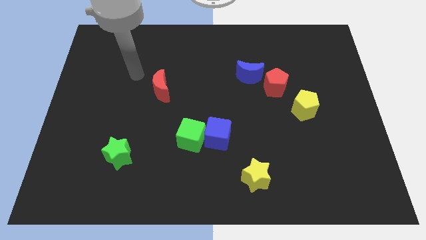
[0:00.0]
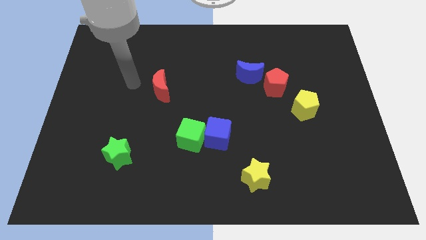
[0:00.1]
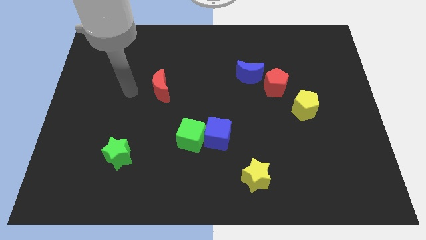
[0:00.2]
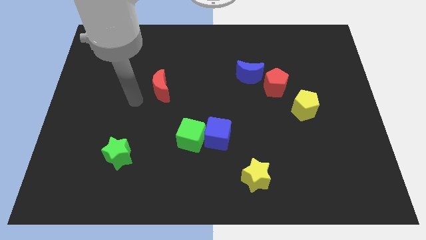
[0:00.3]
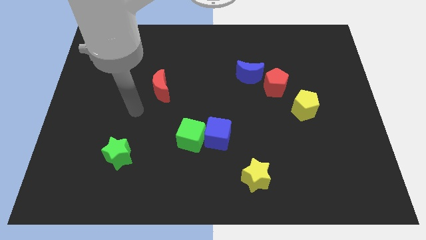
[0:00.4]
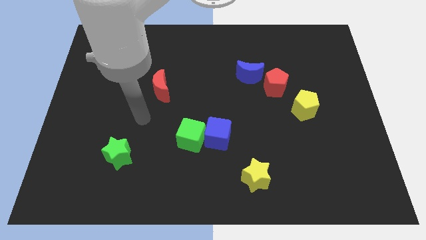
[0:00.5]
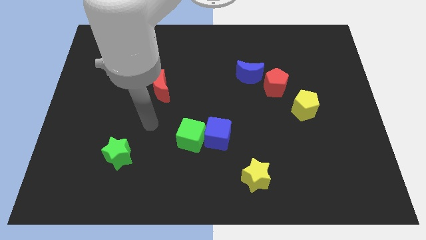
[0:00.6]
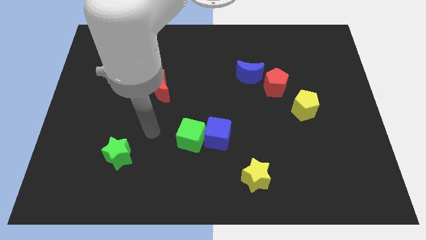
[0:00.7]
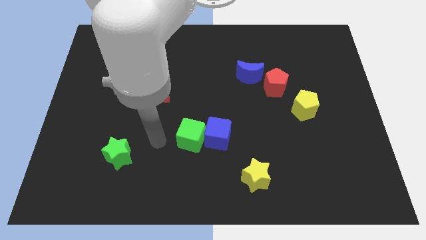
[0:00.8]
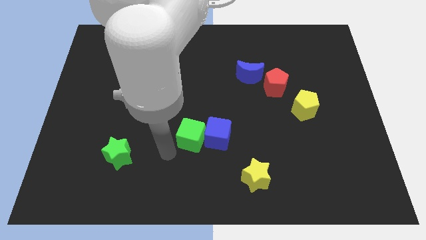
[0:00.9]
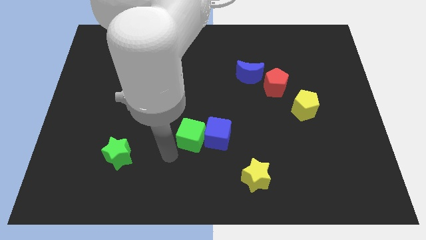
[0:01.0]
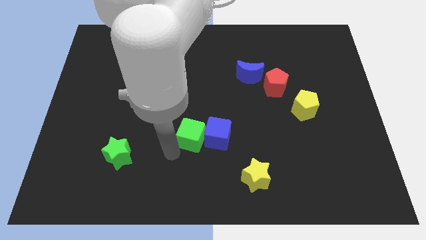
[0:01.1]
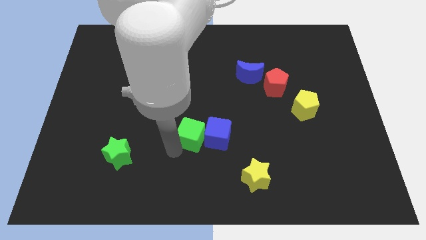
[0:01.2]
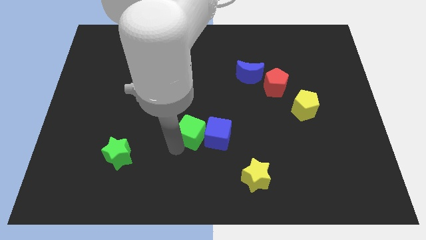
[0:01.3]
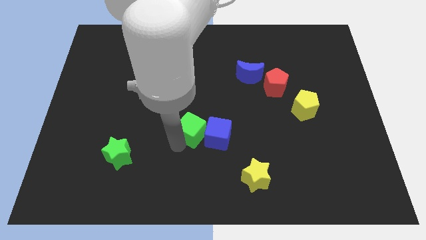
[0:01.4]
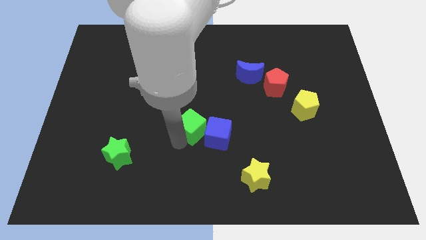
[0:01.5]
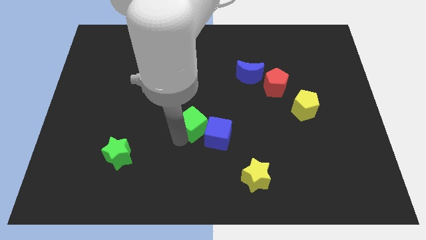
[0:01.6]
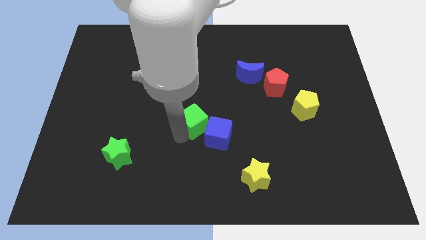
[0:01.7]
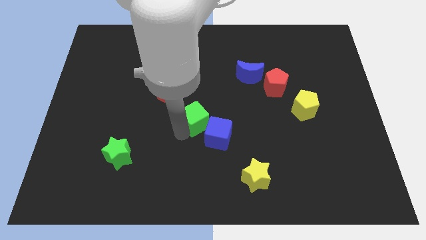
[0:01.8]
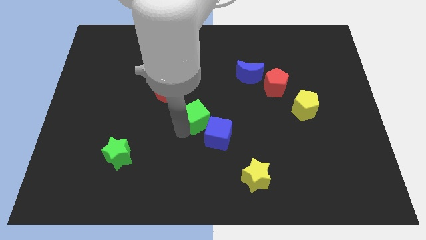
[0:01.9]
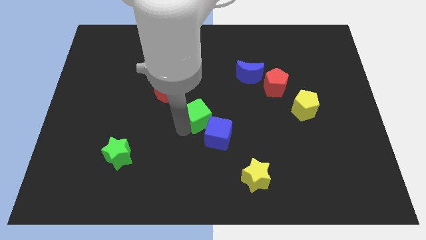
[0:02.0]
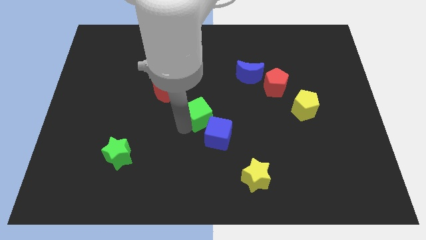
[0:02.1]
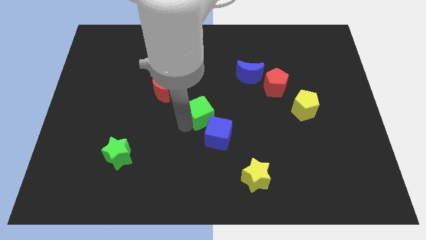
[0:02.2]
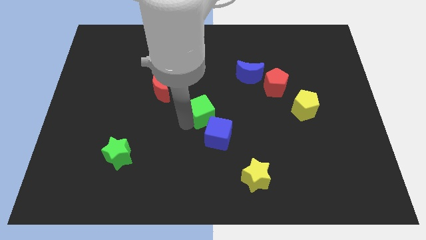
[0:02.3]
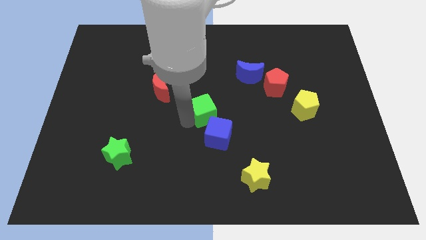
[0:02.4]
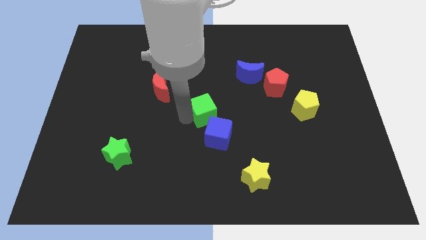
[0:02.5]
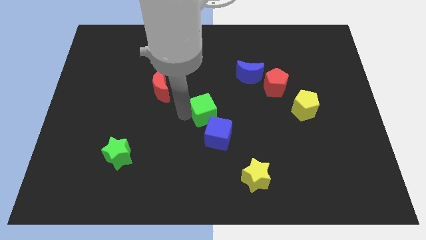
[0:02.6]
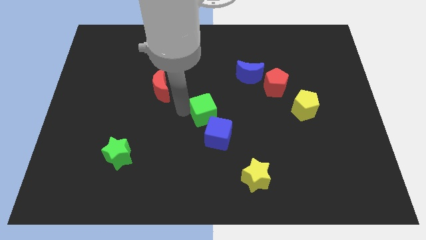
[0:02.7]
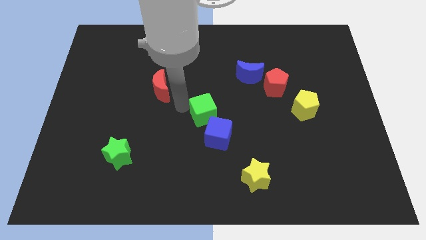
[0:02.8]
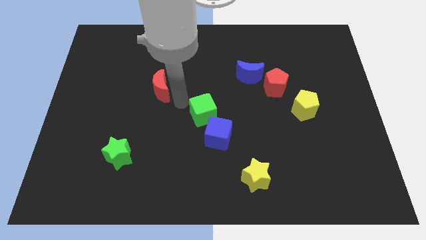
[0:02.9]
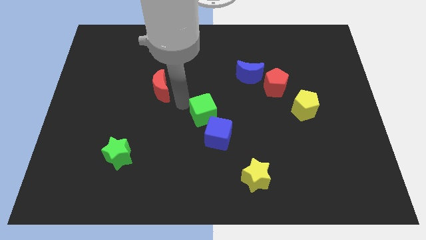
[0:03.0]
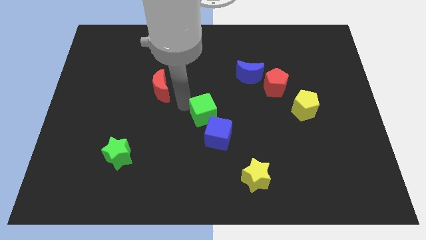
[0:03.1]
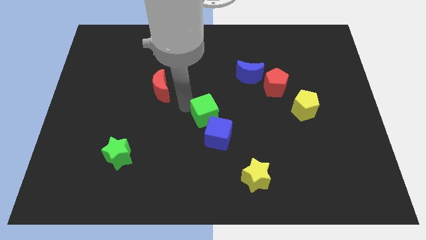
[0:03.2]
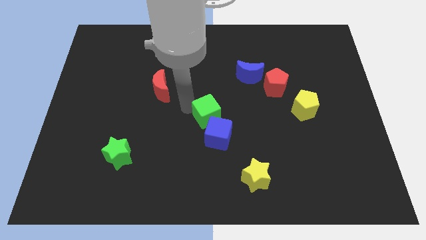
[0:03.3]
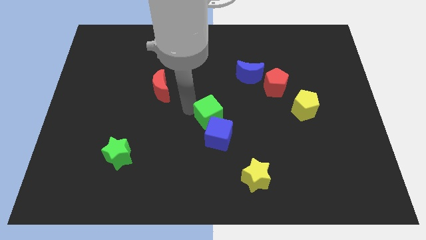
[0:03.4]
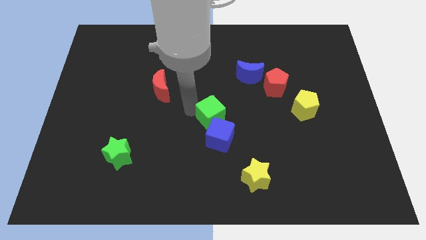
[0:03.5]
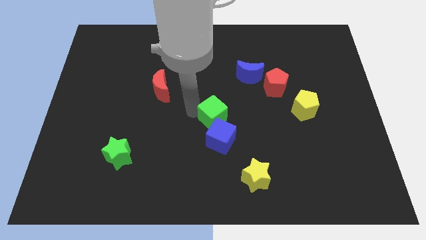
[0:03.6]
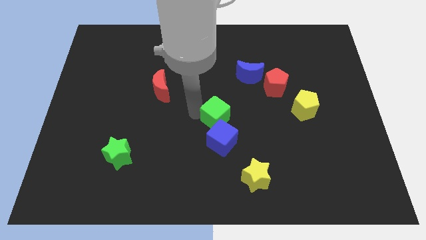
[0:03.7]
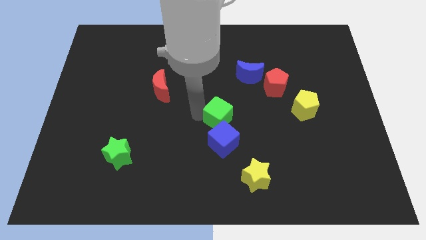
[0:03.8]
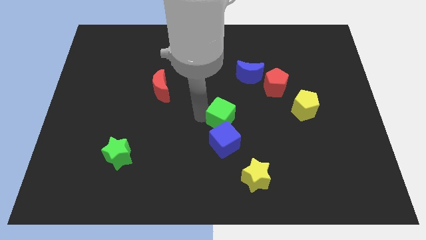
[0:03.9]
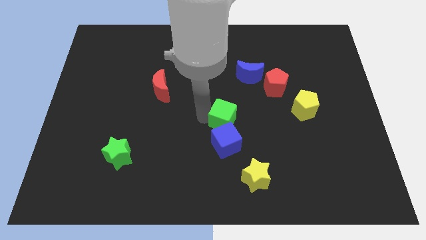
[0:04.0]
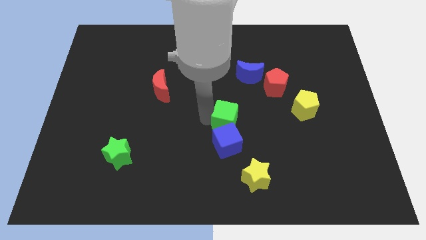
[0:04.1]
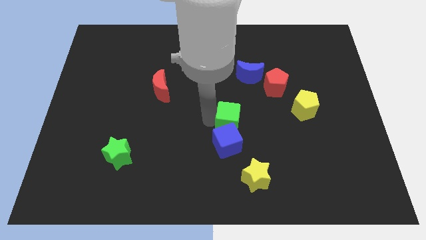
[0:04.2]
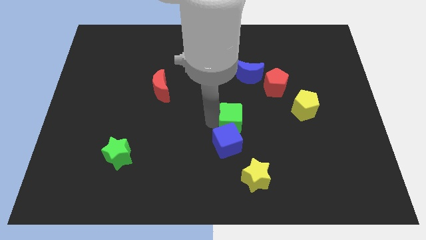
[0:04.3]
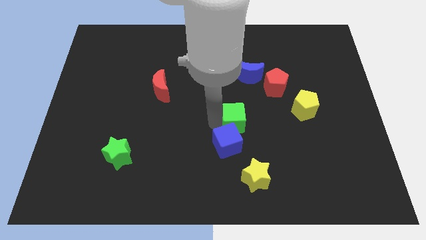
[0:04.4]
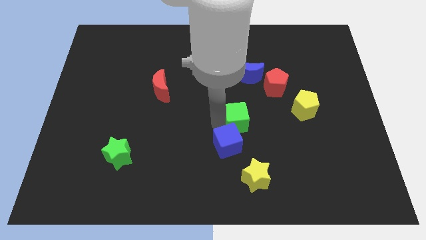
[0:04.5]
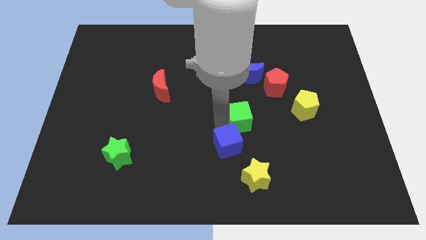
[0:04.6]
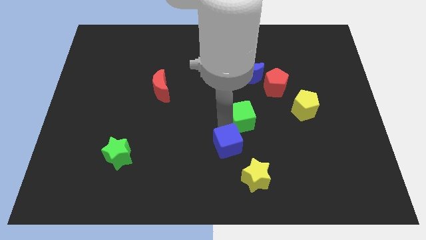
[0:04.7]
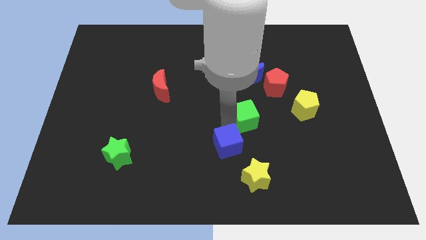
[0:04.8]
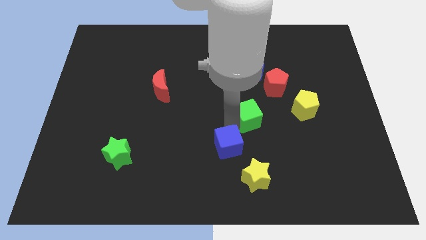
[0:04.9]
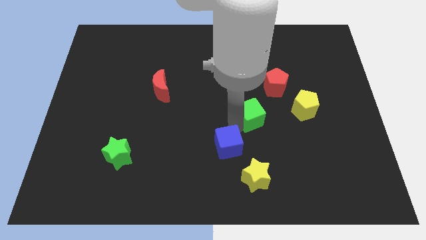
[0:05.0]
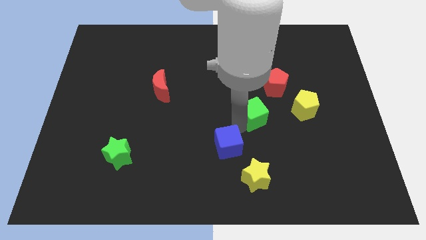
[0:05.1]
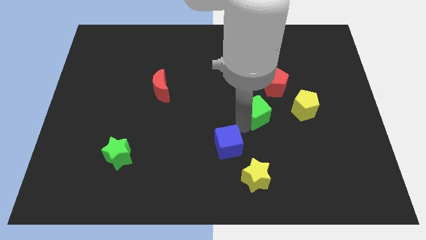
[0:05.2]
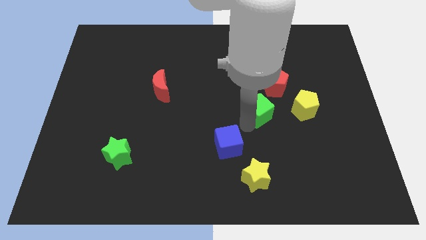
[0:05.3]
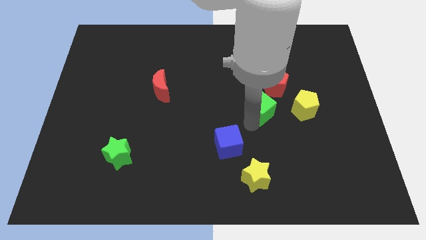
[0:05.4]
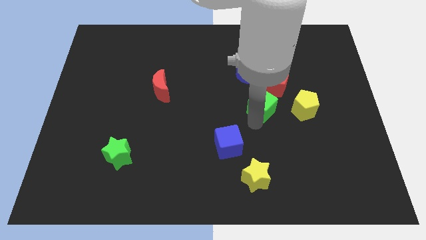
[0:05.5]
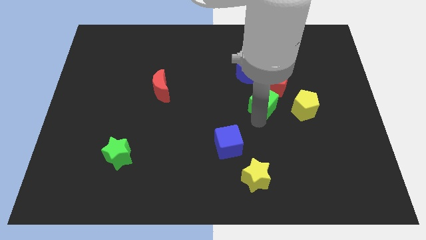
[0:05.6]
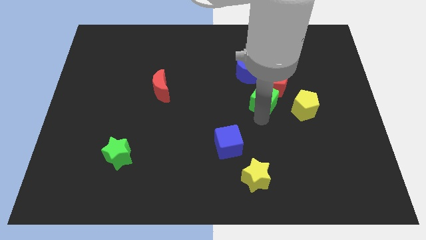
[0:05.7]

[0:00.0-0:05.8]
slide the green cube close to the red pentagon

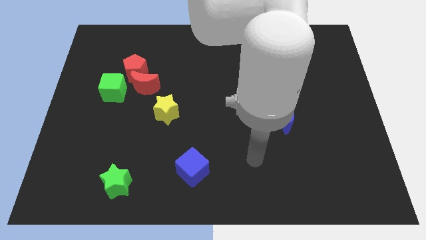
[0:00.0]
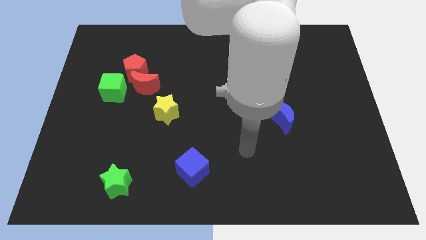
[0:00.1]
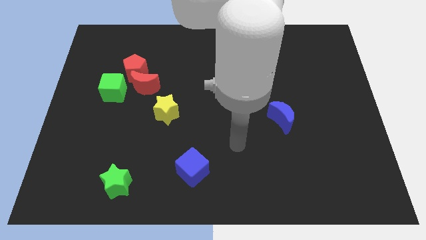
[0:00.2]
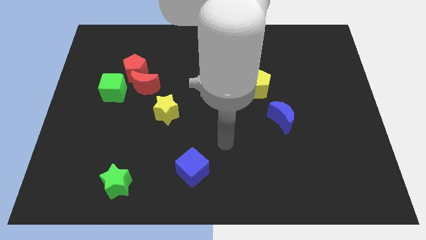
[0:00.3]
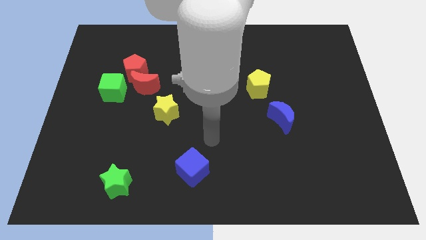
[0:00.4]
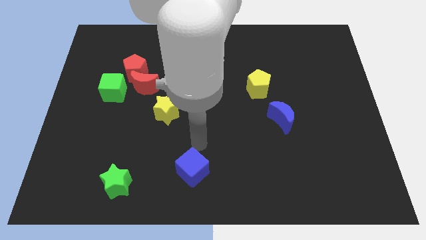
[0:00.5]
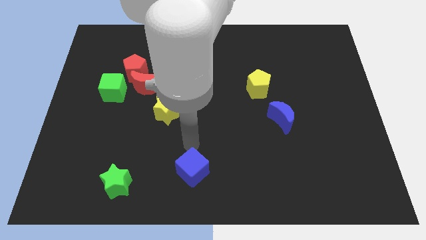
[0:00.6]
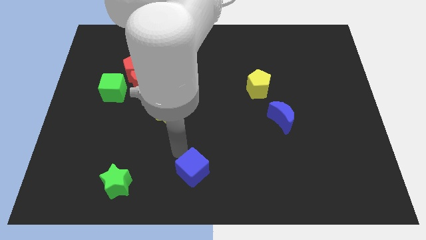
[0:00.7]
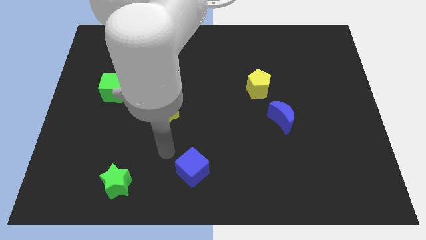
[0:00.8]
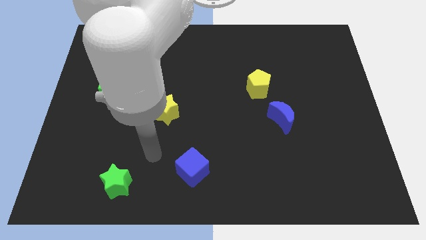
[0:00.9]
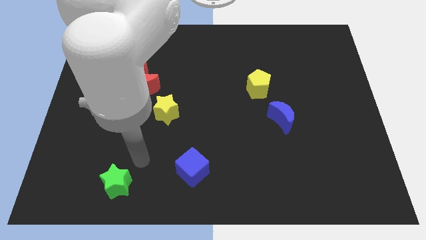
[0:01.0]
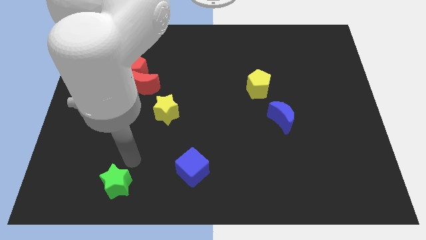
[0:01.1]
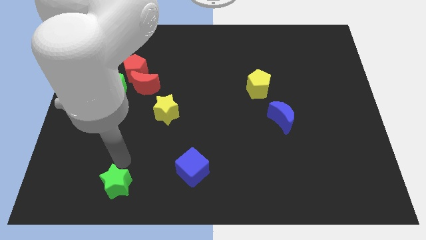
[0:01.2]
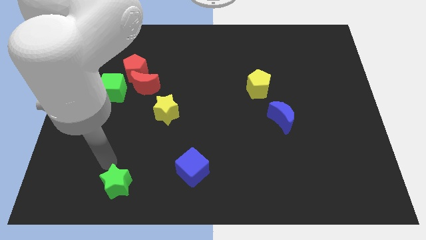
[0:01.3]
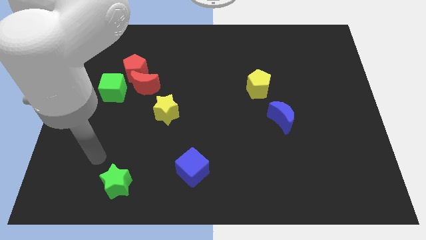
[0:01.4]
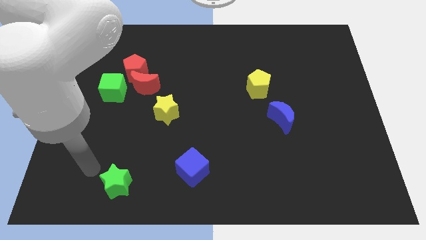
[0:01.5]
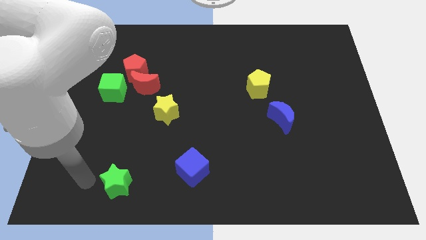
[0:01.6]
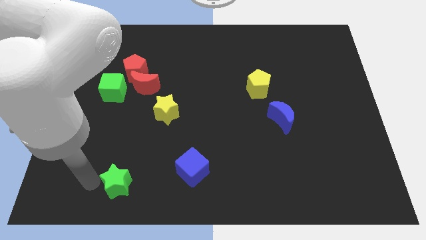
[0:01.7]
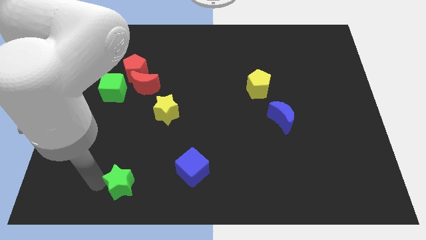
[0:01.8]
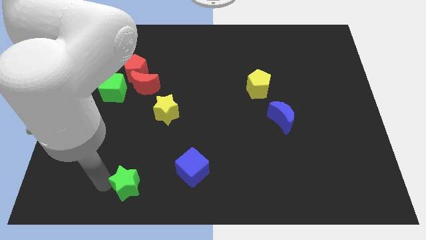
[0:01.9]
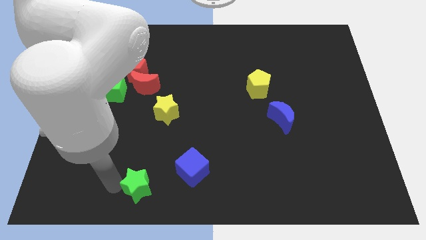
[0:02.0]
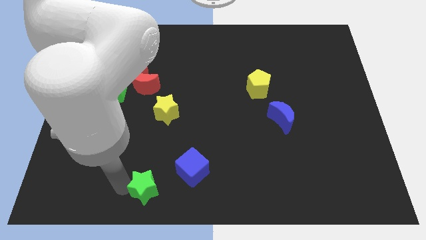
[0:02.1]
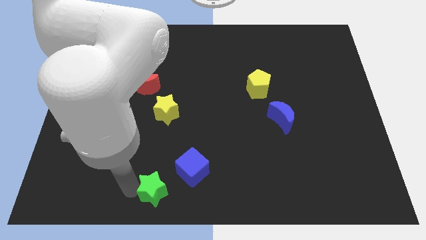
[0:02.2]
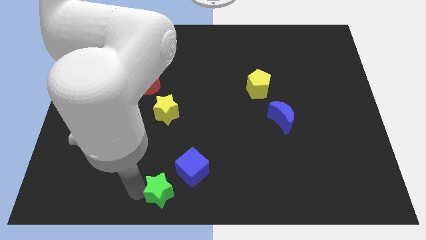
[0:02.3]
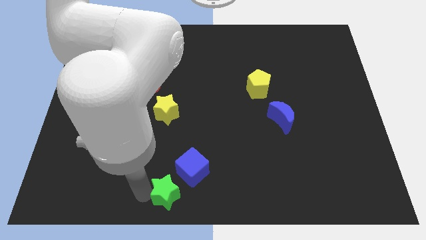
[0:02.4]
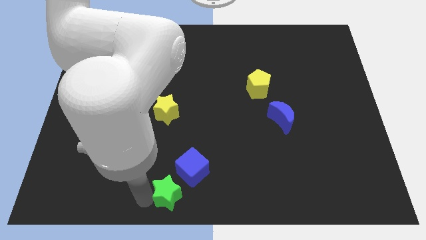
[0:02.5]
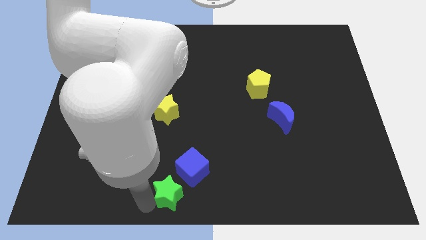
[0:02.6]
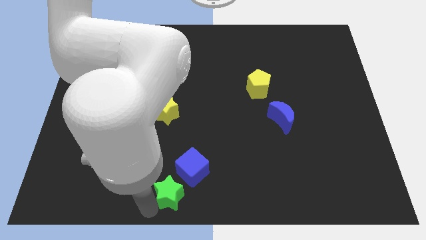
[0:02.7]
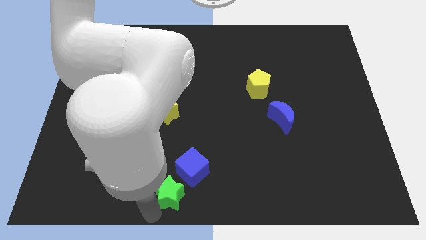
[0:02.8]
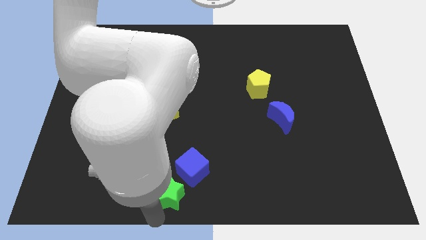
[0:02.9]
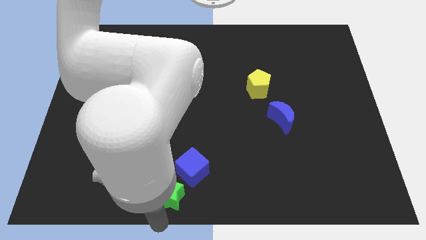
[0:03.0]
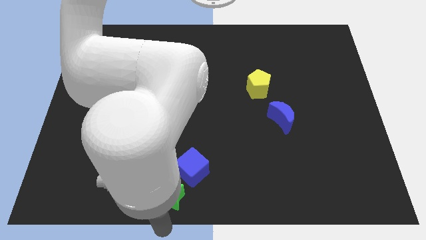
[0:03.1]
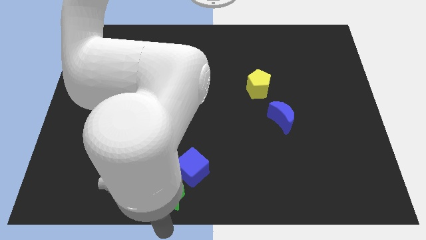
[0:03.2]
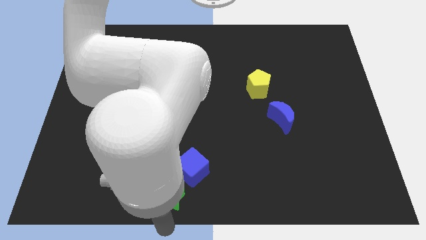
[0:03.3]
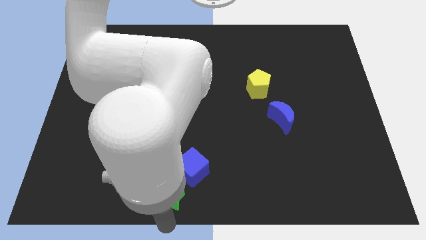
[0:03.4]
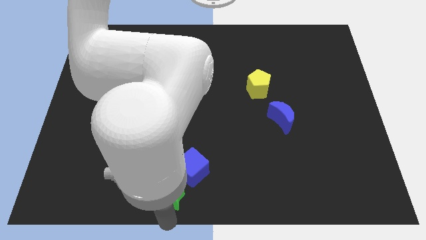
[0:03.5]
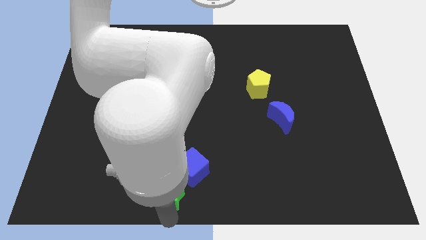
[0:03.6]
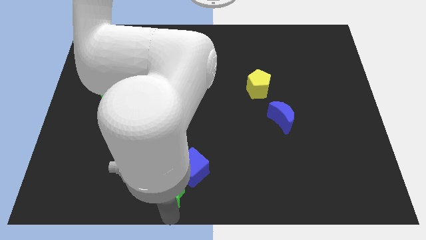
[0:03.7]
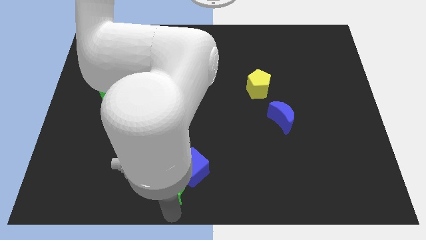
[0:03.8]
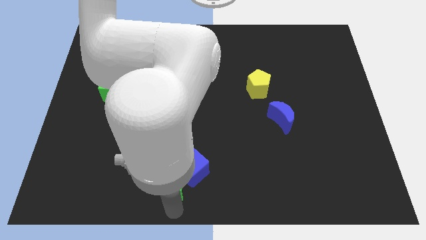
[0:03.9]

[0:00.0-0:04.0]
slide the green star towards the blue cube
